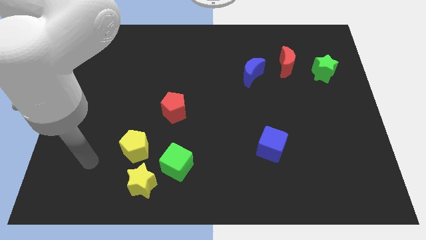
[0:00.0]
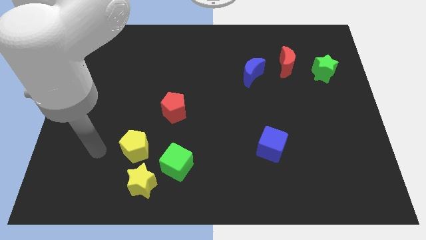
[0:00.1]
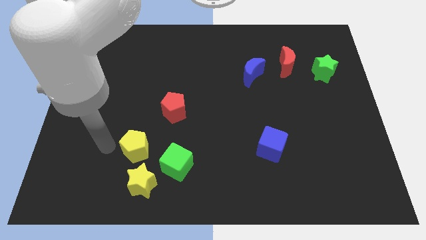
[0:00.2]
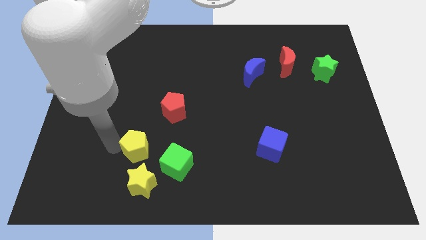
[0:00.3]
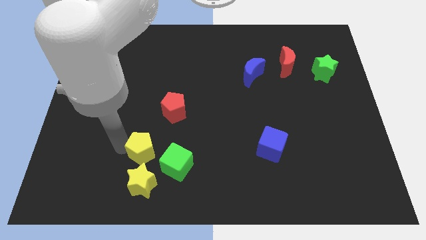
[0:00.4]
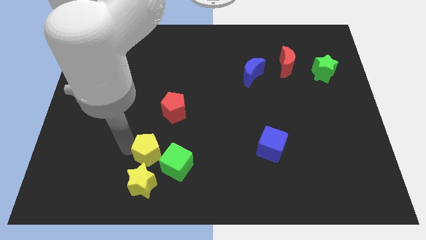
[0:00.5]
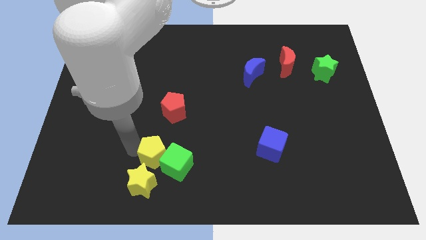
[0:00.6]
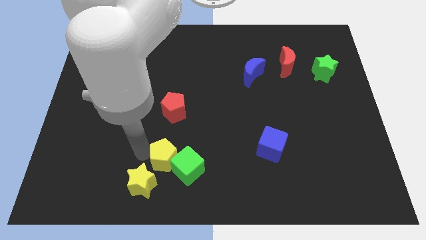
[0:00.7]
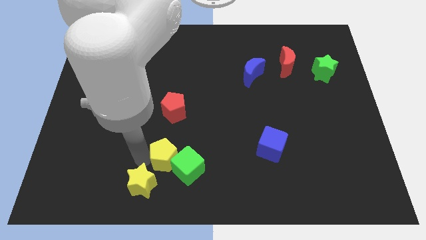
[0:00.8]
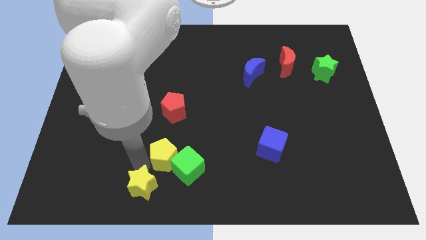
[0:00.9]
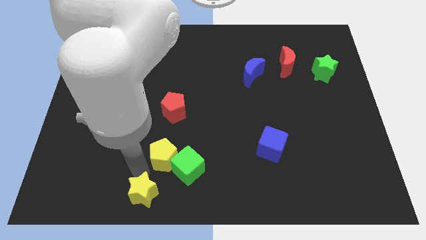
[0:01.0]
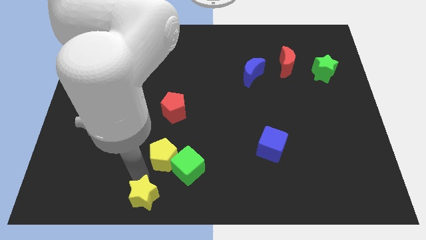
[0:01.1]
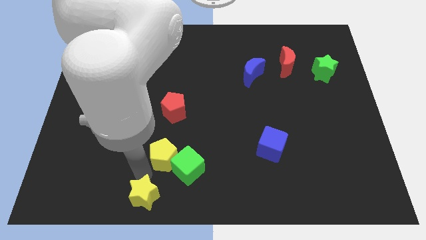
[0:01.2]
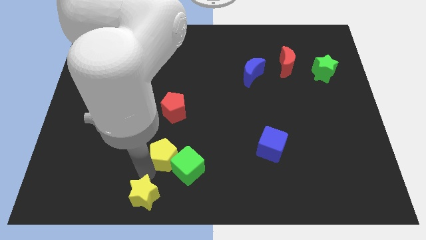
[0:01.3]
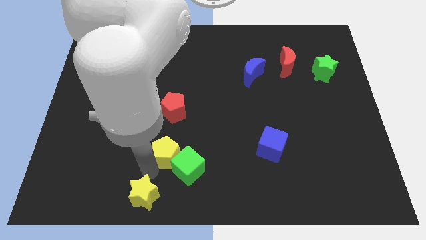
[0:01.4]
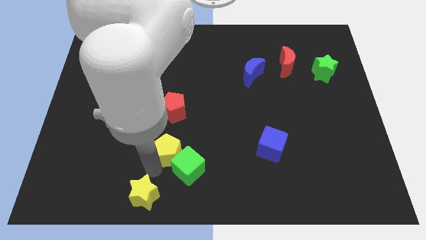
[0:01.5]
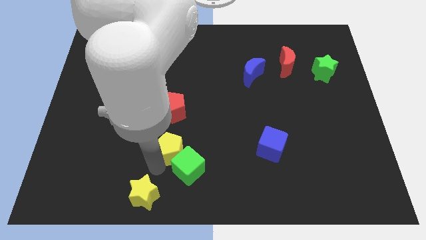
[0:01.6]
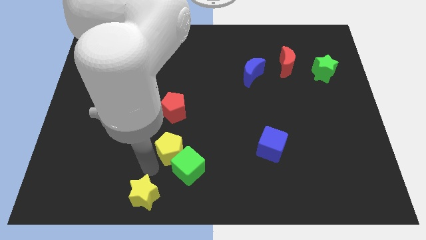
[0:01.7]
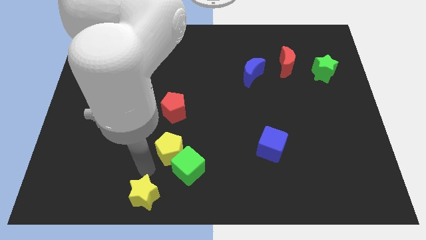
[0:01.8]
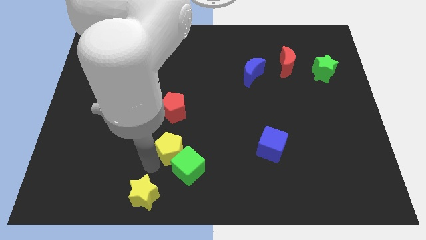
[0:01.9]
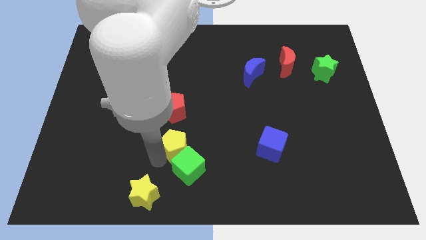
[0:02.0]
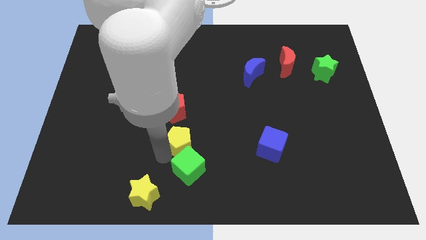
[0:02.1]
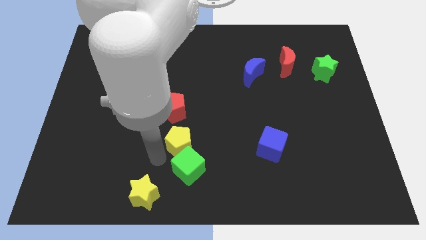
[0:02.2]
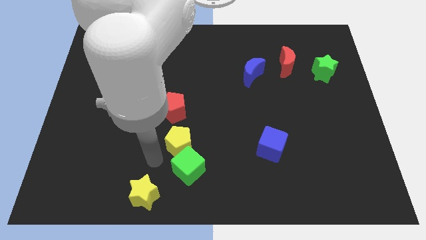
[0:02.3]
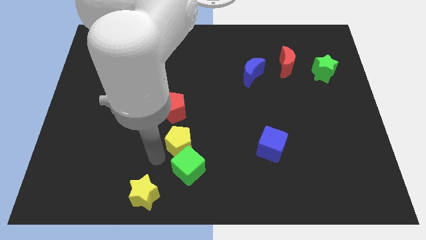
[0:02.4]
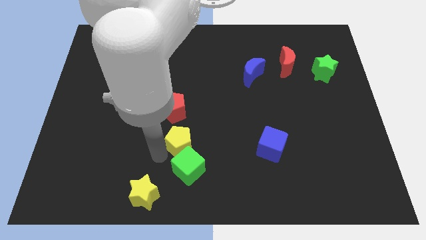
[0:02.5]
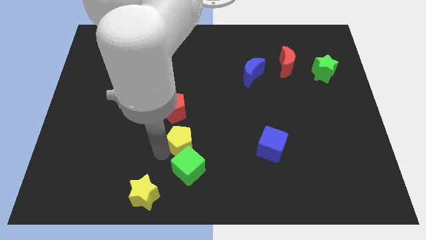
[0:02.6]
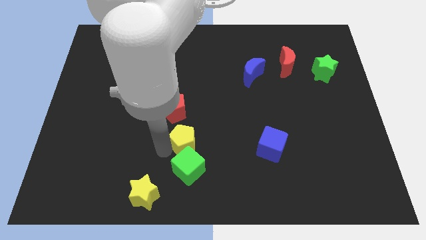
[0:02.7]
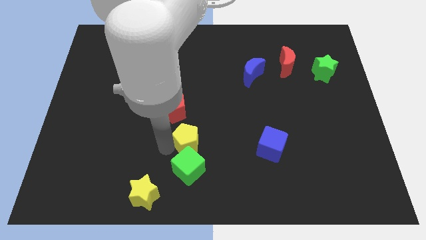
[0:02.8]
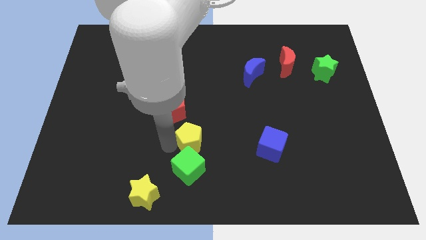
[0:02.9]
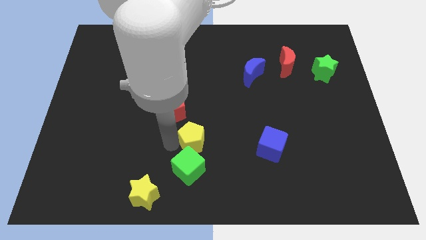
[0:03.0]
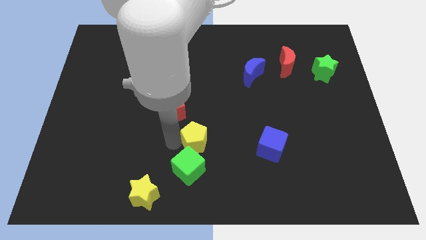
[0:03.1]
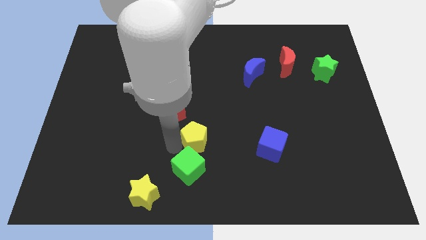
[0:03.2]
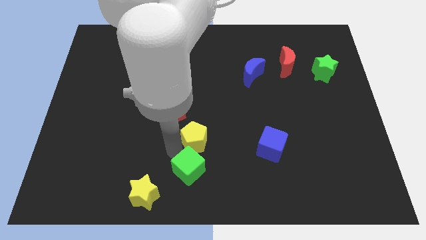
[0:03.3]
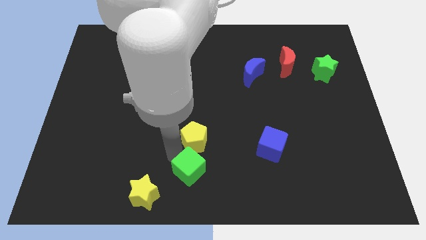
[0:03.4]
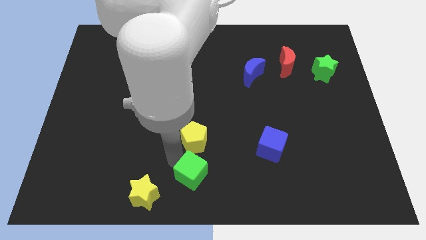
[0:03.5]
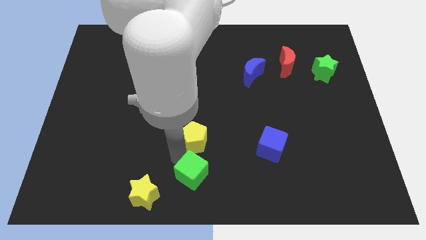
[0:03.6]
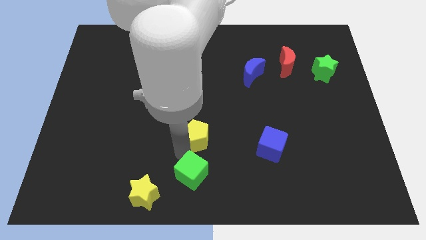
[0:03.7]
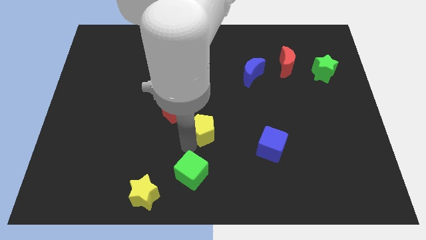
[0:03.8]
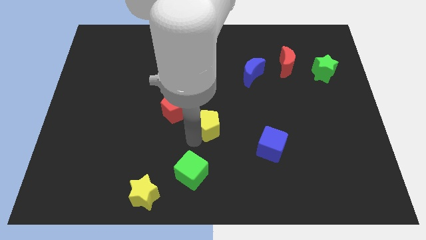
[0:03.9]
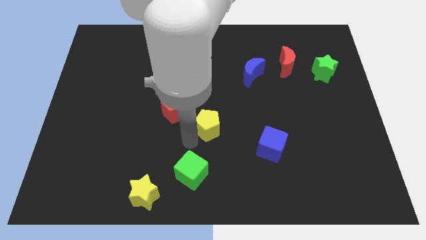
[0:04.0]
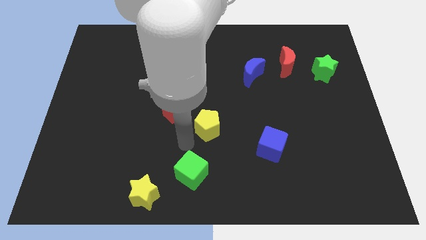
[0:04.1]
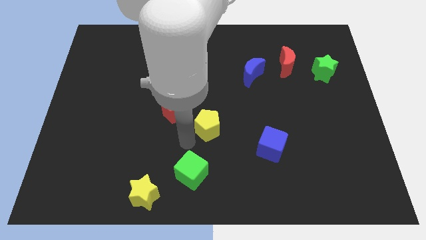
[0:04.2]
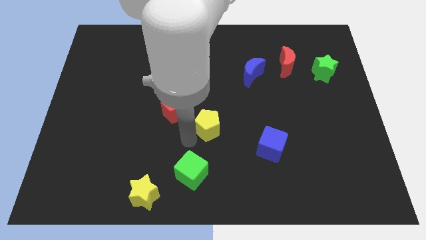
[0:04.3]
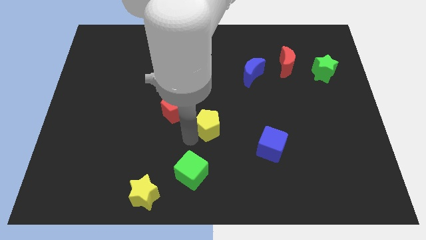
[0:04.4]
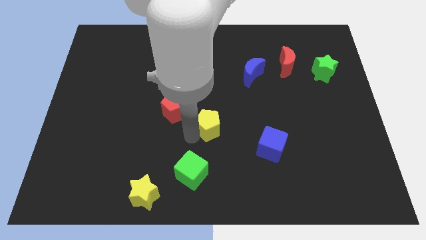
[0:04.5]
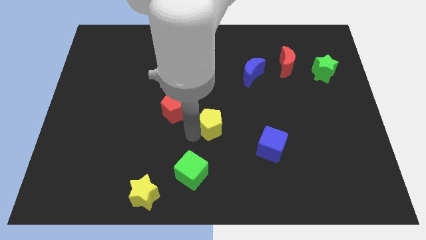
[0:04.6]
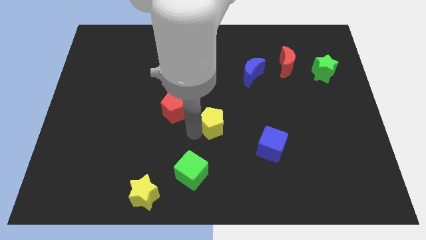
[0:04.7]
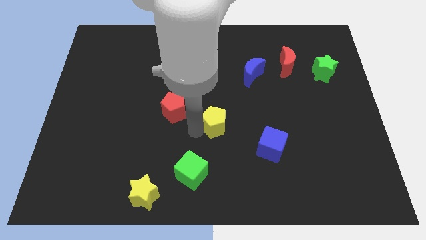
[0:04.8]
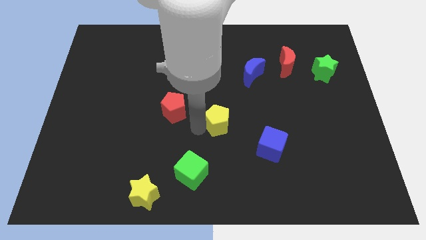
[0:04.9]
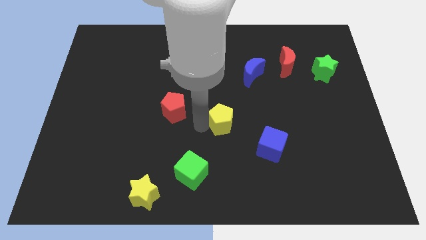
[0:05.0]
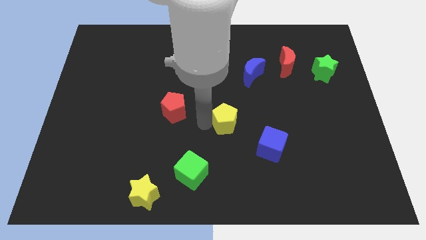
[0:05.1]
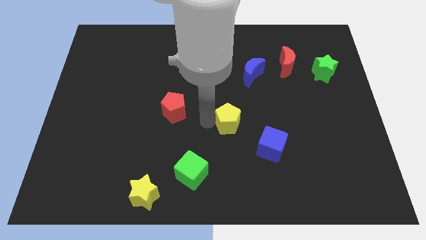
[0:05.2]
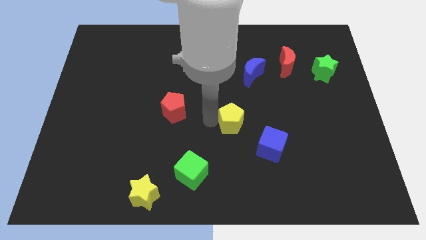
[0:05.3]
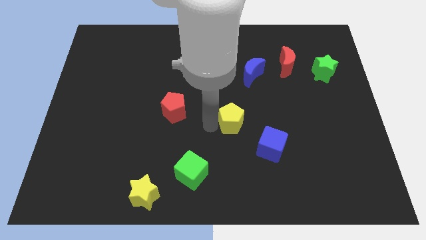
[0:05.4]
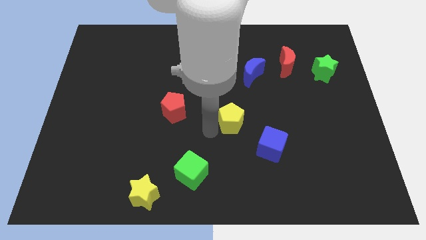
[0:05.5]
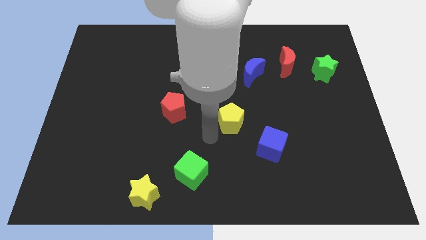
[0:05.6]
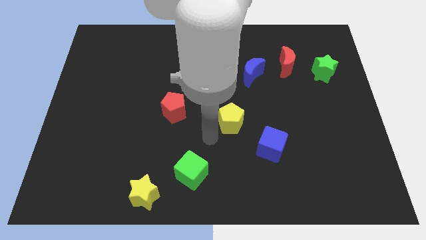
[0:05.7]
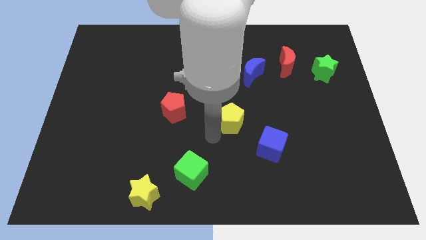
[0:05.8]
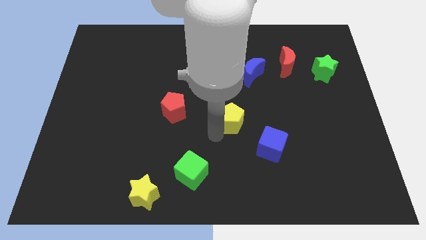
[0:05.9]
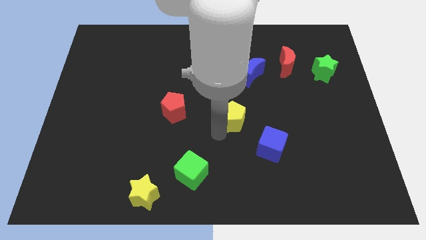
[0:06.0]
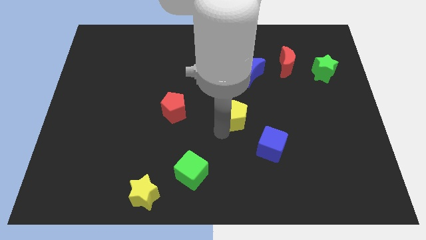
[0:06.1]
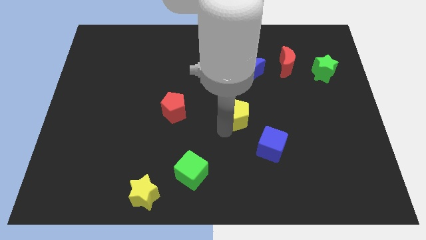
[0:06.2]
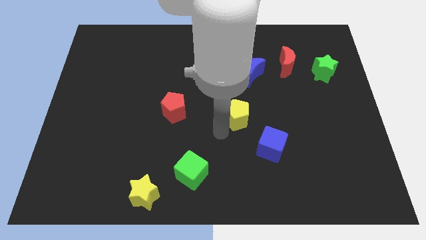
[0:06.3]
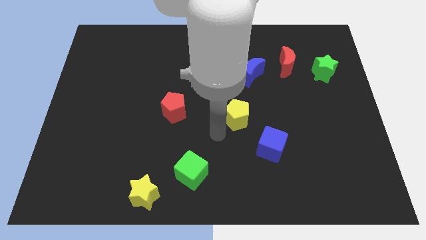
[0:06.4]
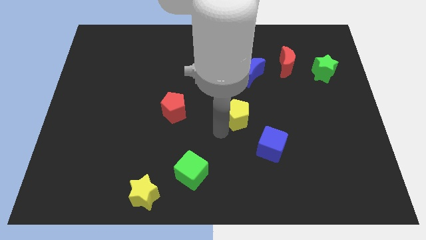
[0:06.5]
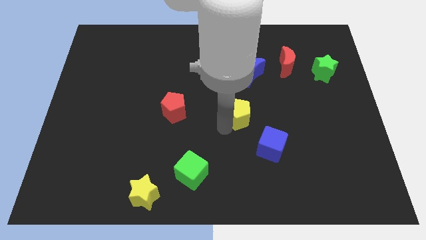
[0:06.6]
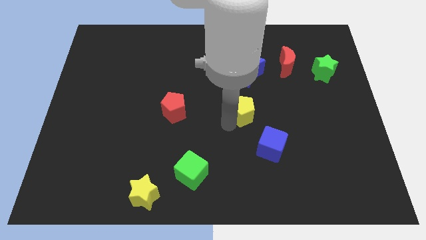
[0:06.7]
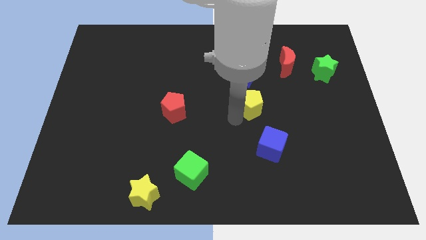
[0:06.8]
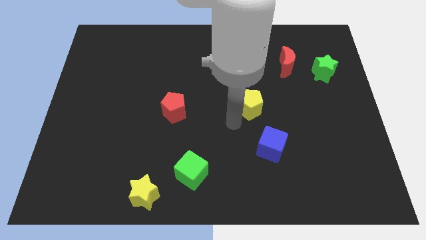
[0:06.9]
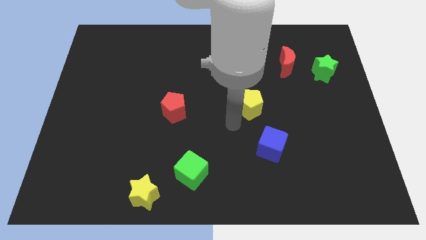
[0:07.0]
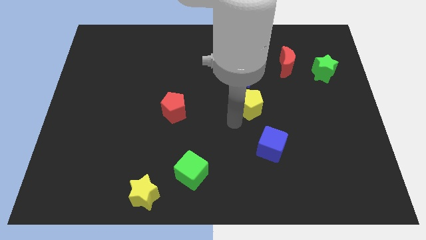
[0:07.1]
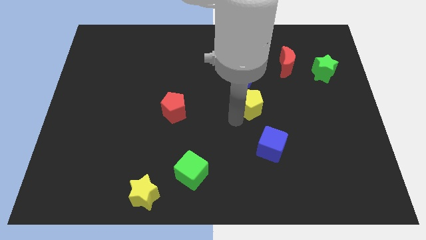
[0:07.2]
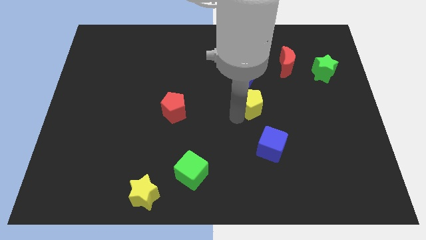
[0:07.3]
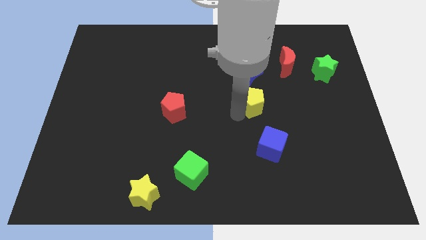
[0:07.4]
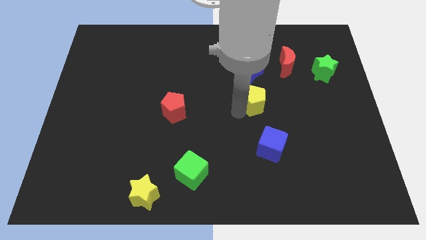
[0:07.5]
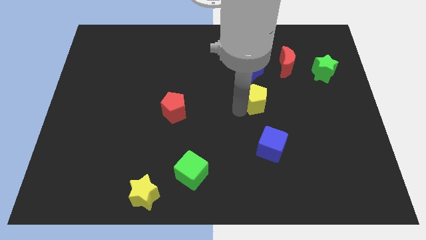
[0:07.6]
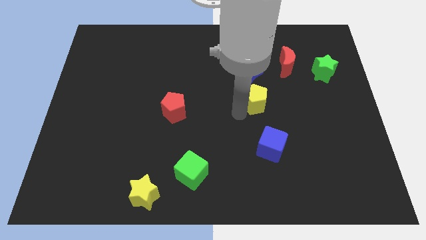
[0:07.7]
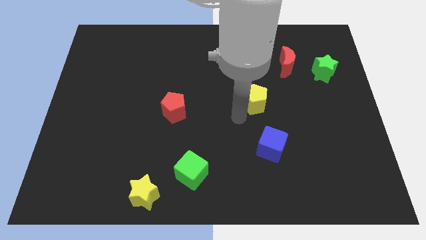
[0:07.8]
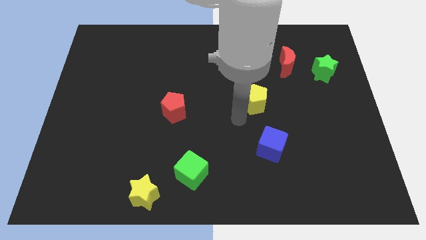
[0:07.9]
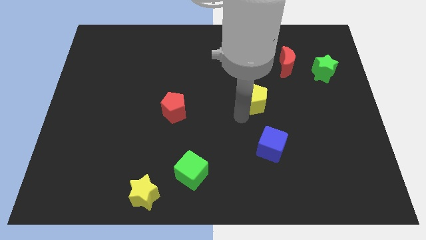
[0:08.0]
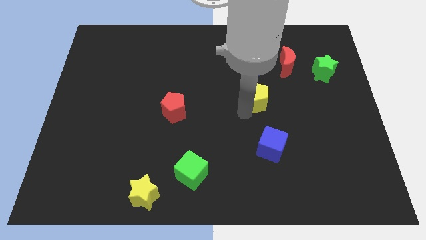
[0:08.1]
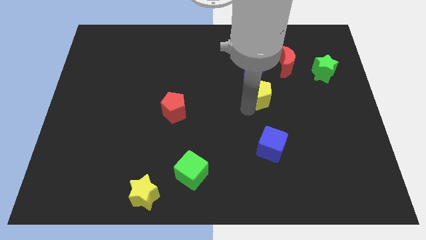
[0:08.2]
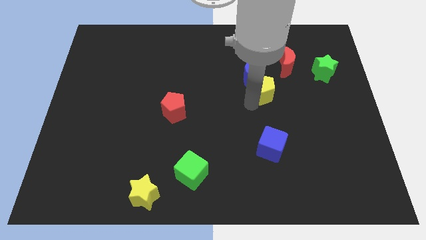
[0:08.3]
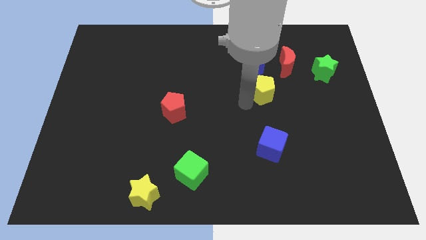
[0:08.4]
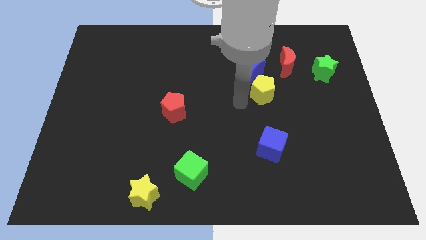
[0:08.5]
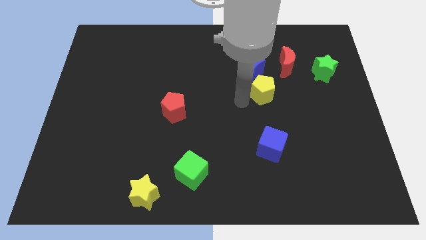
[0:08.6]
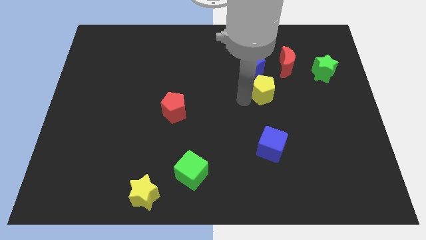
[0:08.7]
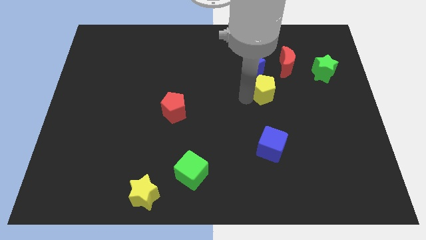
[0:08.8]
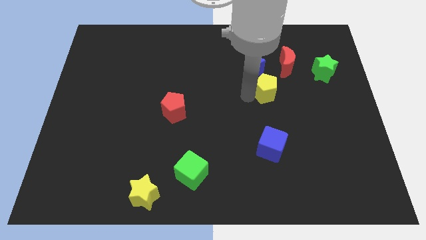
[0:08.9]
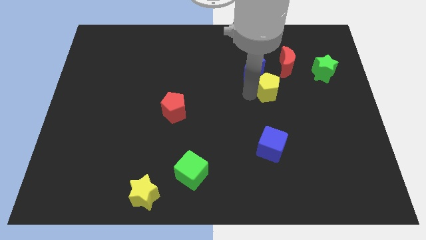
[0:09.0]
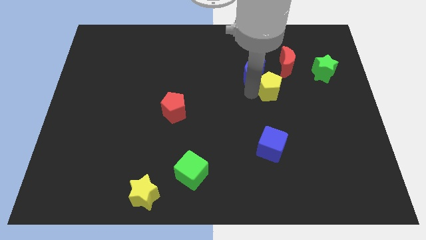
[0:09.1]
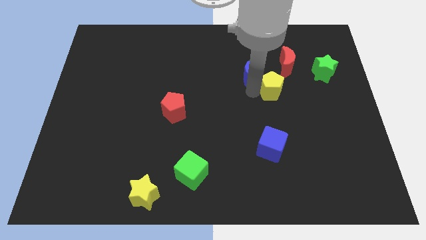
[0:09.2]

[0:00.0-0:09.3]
put the yellow pentagon to the right side of the blue moon
